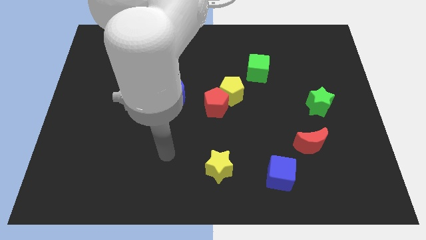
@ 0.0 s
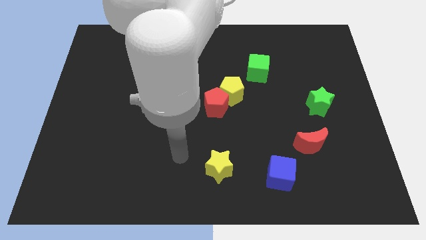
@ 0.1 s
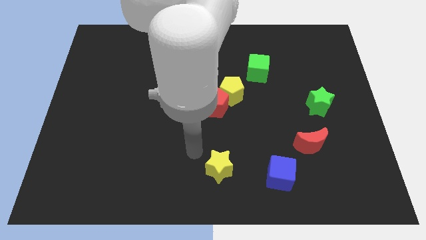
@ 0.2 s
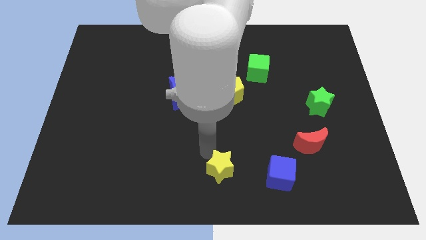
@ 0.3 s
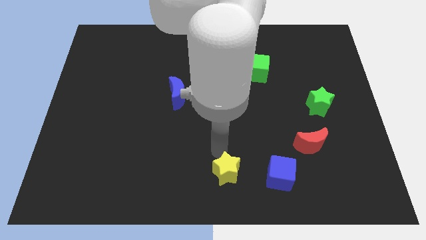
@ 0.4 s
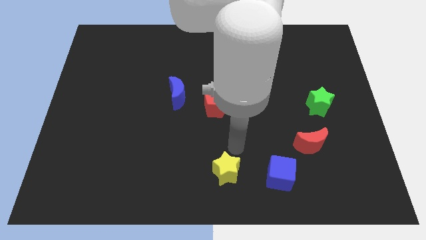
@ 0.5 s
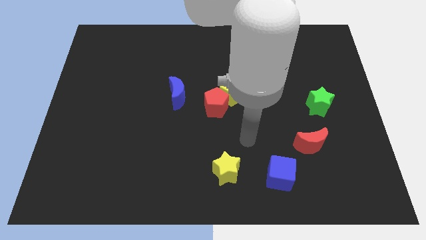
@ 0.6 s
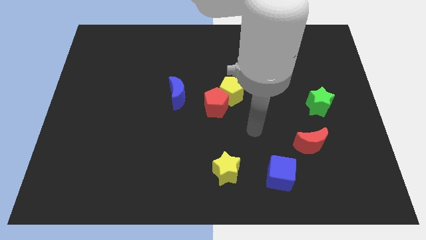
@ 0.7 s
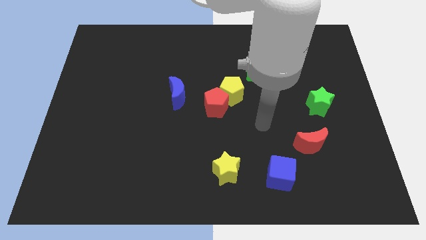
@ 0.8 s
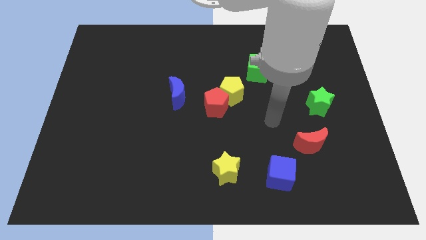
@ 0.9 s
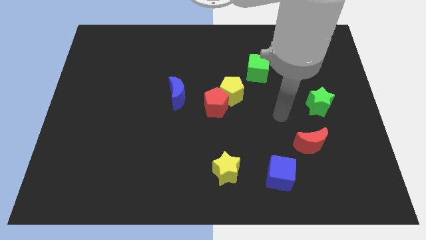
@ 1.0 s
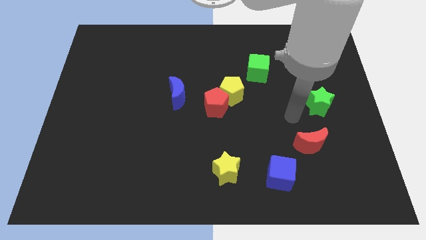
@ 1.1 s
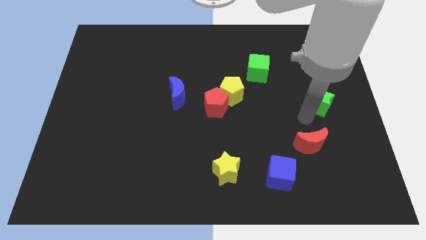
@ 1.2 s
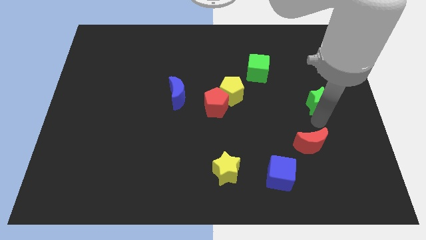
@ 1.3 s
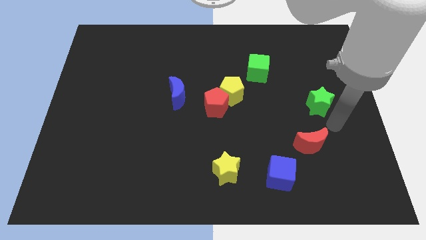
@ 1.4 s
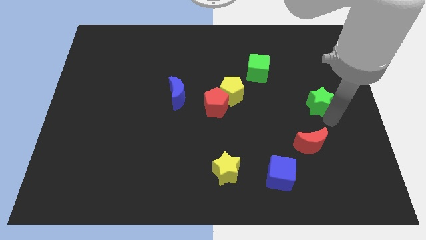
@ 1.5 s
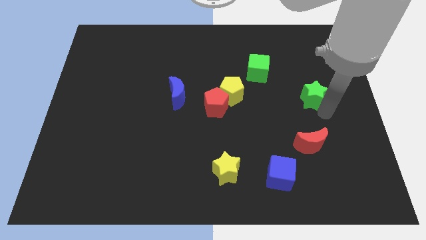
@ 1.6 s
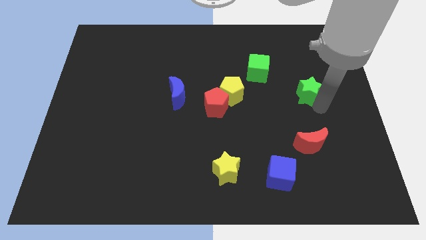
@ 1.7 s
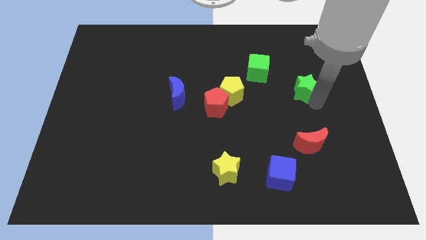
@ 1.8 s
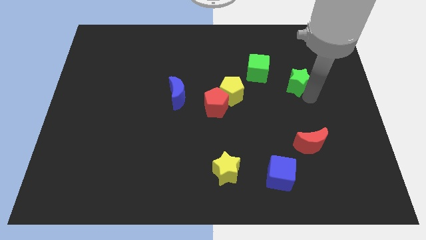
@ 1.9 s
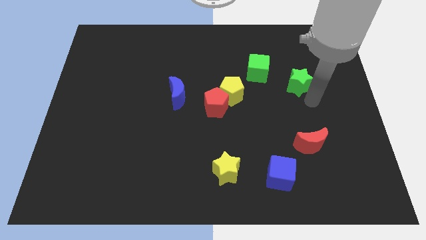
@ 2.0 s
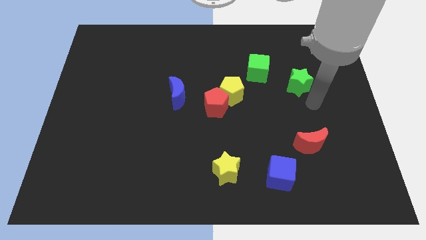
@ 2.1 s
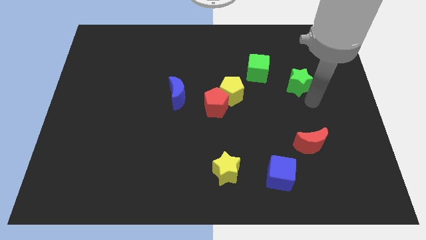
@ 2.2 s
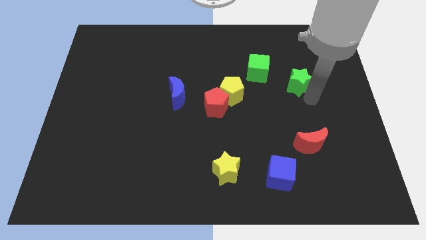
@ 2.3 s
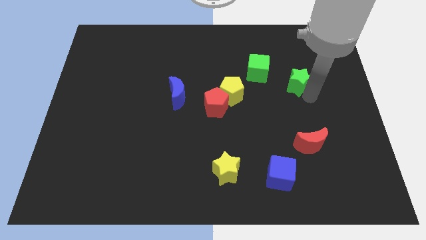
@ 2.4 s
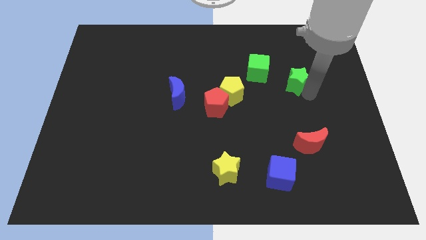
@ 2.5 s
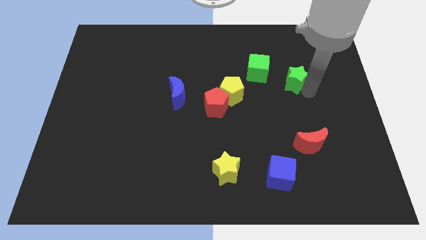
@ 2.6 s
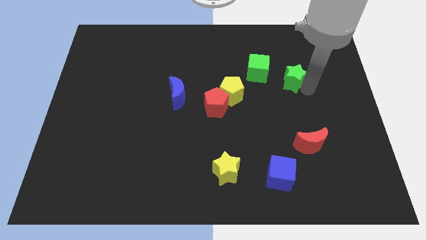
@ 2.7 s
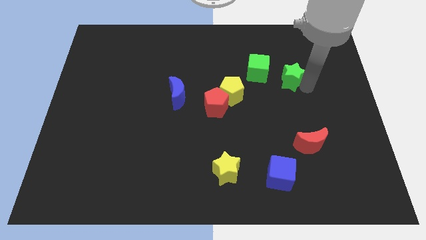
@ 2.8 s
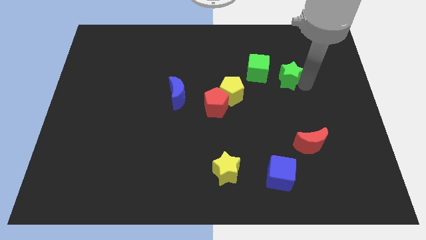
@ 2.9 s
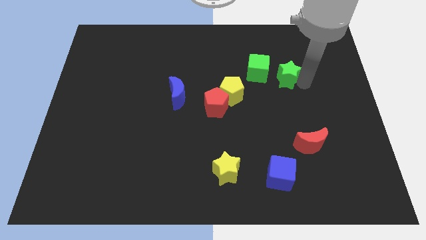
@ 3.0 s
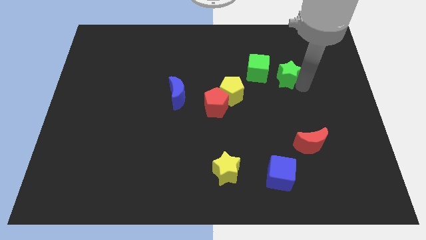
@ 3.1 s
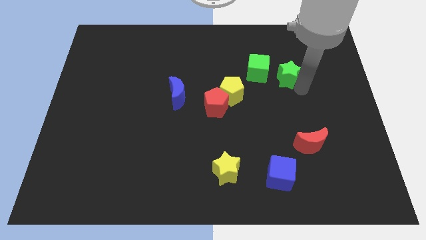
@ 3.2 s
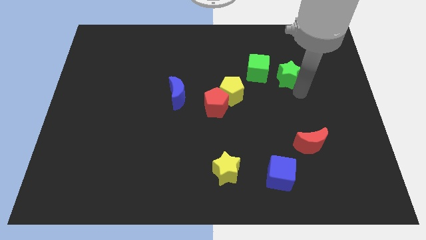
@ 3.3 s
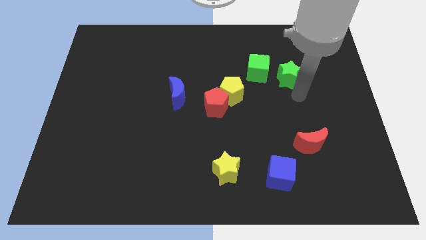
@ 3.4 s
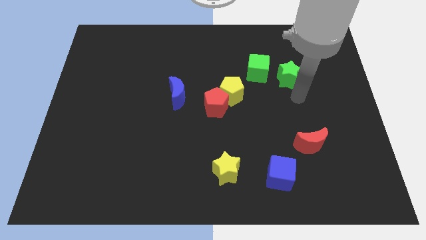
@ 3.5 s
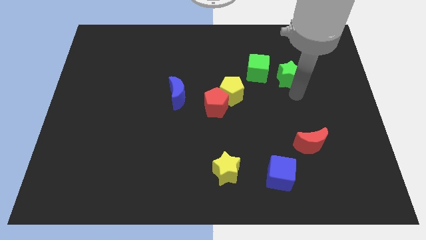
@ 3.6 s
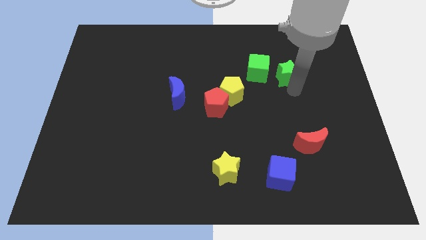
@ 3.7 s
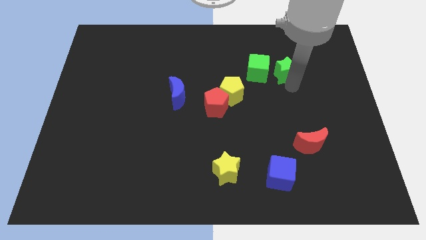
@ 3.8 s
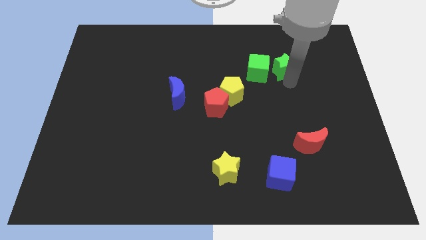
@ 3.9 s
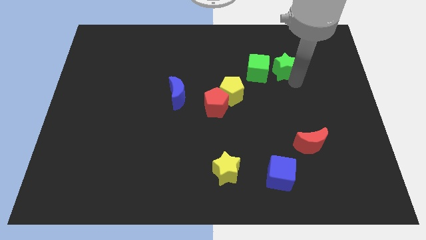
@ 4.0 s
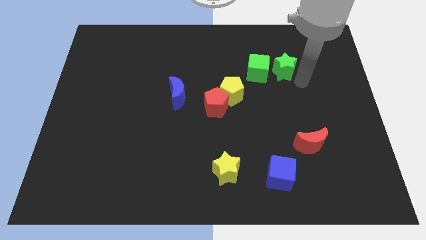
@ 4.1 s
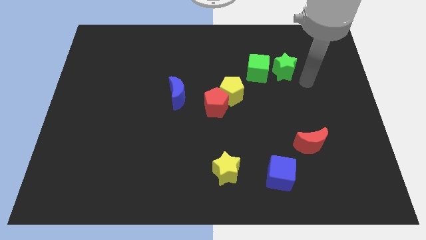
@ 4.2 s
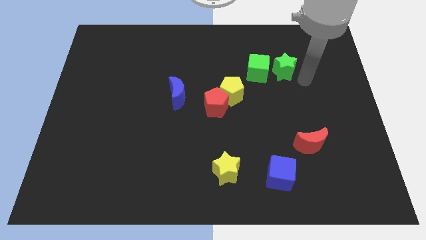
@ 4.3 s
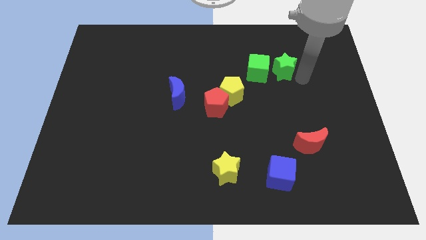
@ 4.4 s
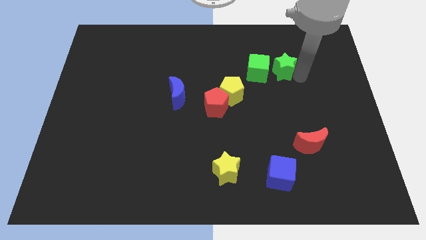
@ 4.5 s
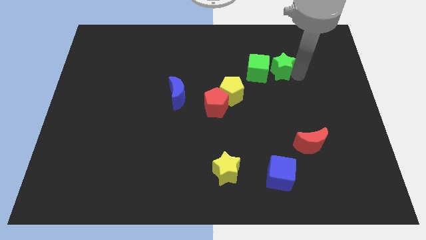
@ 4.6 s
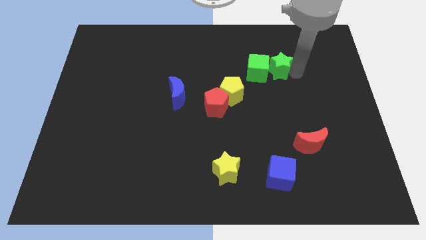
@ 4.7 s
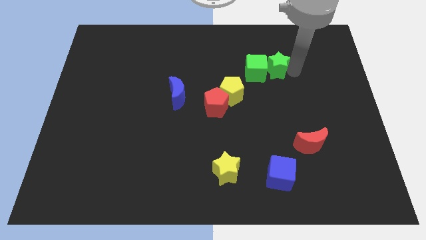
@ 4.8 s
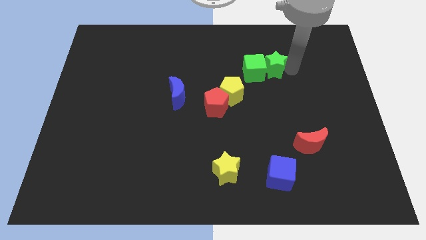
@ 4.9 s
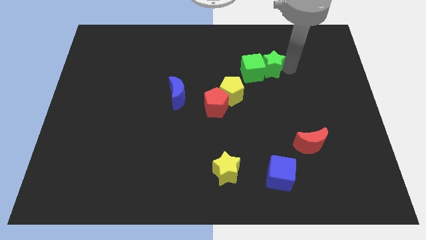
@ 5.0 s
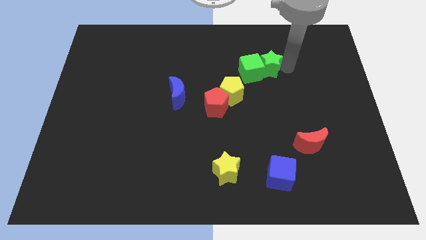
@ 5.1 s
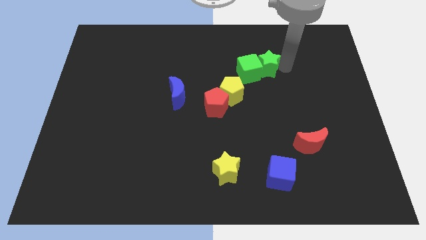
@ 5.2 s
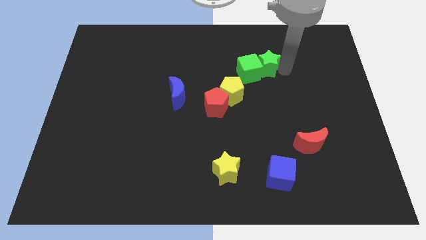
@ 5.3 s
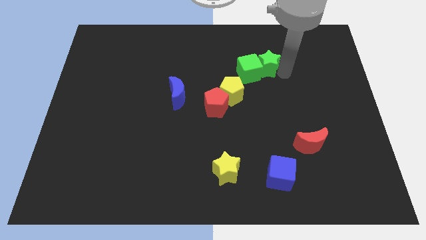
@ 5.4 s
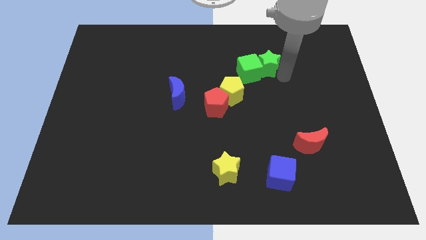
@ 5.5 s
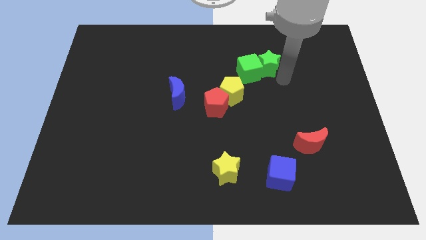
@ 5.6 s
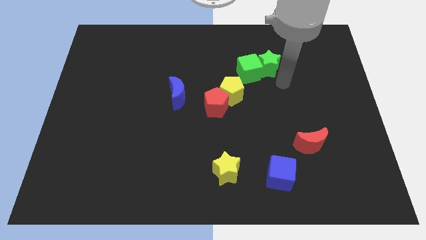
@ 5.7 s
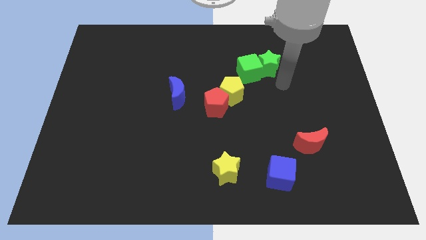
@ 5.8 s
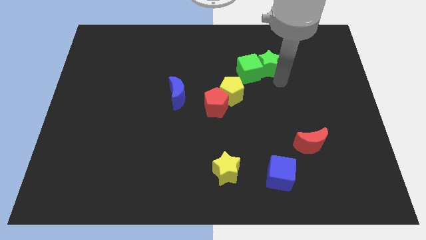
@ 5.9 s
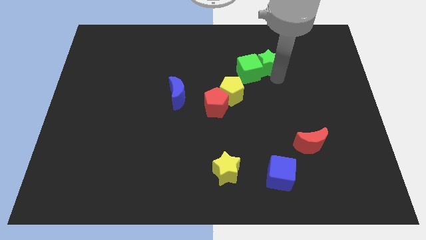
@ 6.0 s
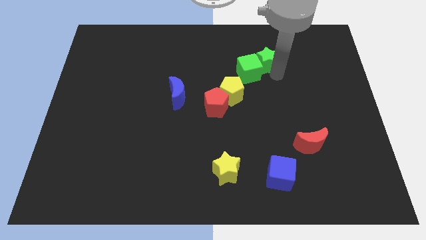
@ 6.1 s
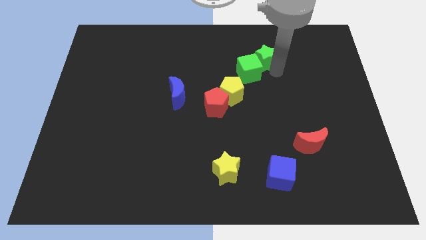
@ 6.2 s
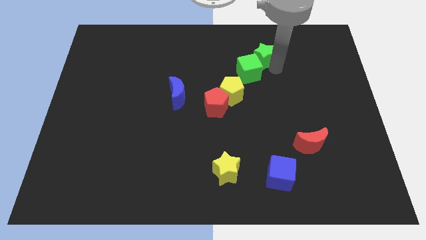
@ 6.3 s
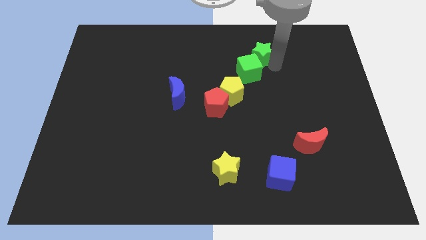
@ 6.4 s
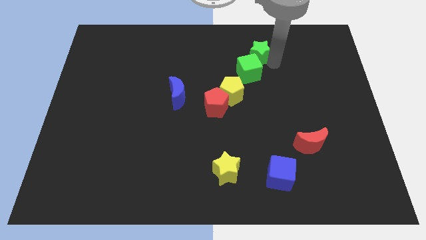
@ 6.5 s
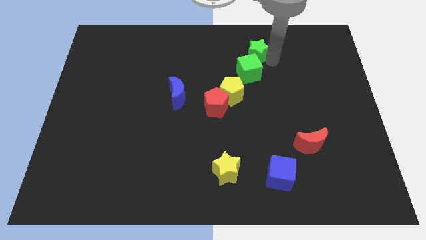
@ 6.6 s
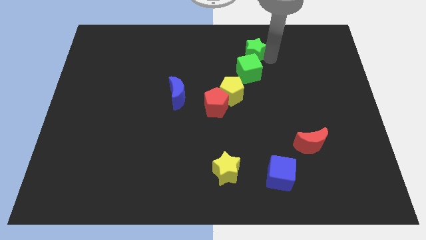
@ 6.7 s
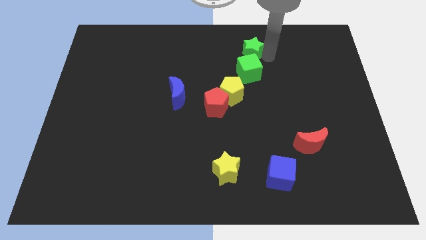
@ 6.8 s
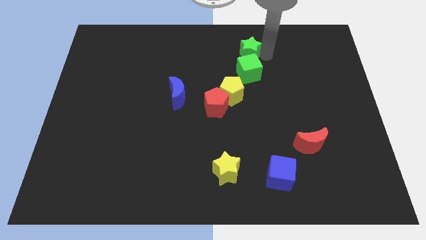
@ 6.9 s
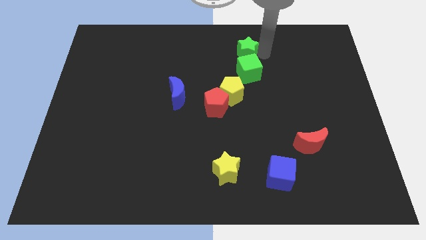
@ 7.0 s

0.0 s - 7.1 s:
put the green star to the top left side of the green cube

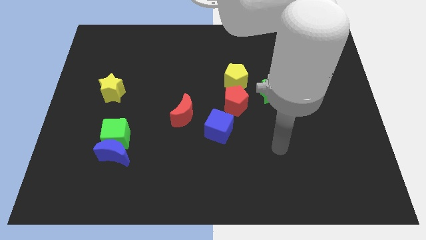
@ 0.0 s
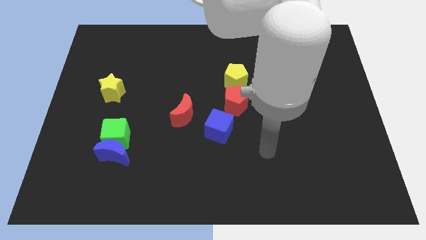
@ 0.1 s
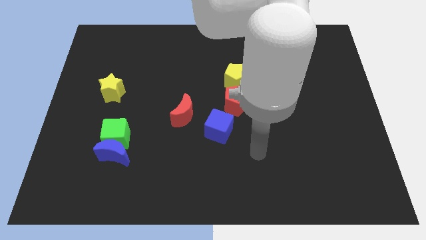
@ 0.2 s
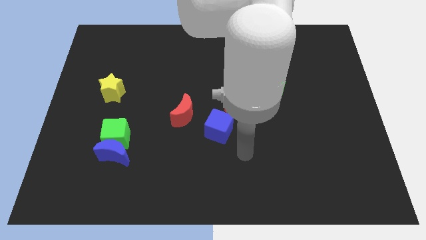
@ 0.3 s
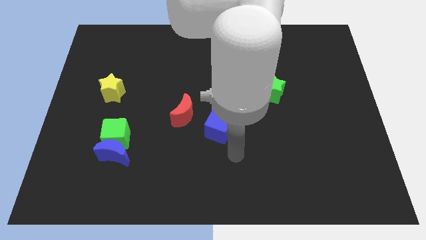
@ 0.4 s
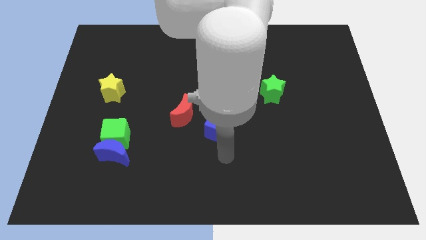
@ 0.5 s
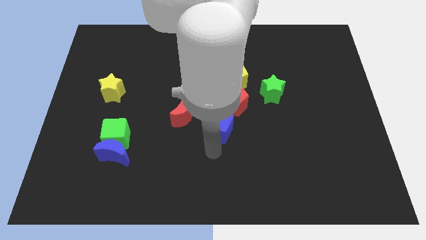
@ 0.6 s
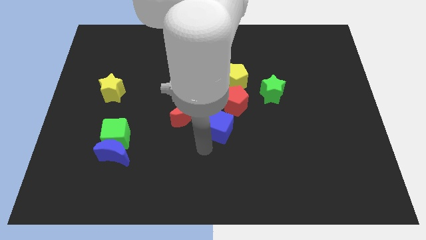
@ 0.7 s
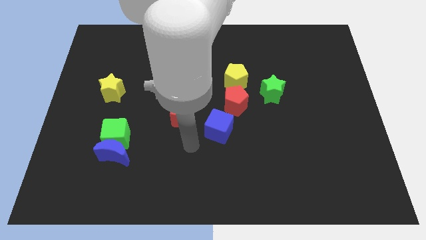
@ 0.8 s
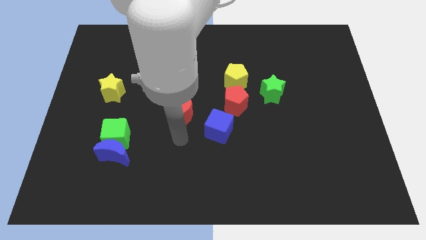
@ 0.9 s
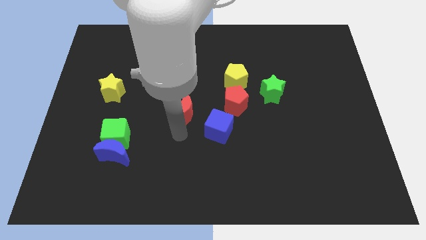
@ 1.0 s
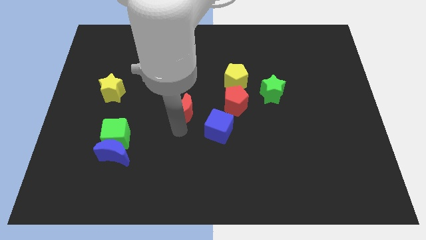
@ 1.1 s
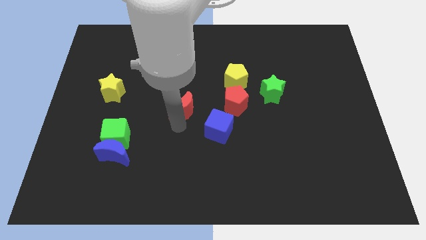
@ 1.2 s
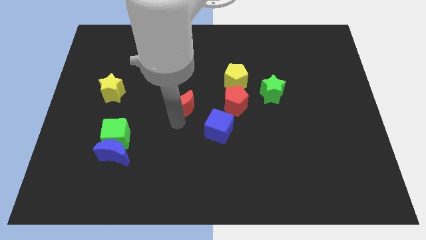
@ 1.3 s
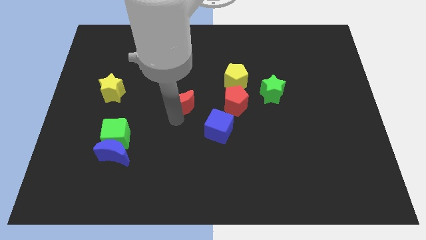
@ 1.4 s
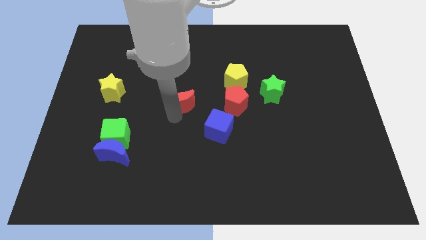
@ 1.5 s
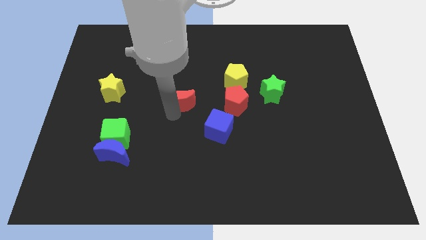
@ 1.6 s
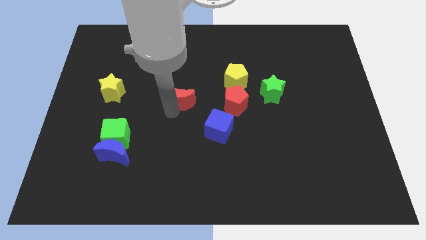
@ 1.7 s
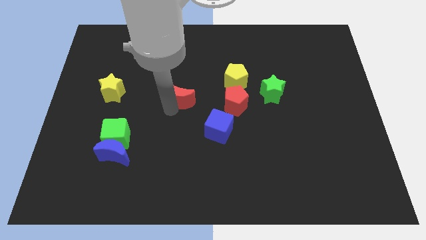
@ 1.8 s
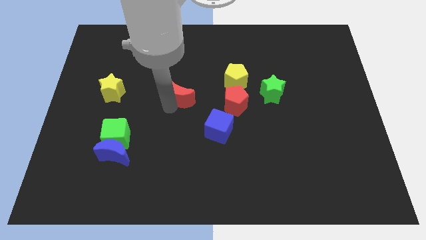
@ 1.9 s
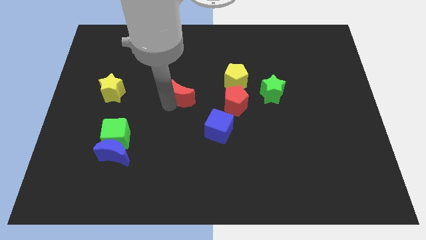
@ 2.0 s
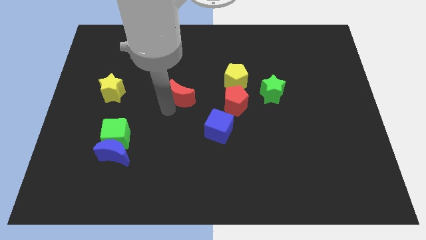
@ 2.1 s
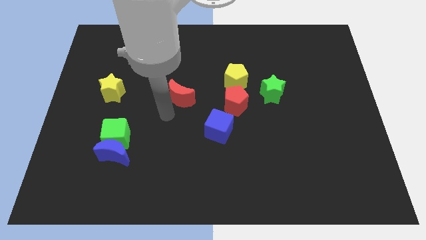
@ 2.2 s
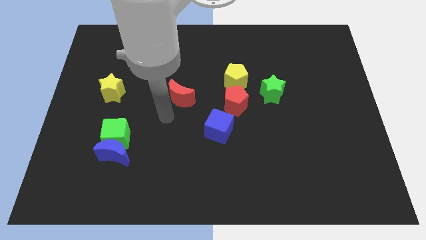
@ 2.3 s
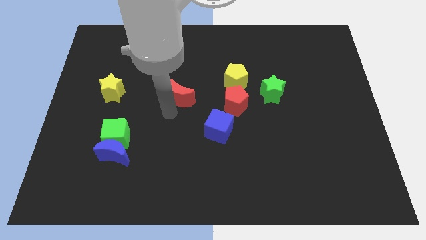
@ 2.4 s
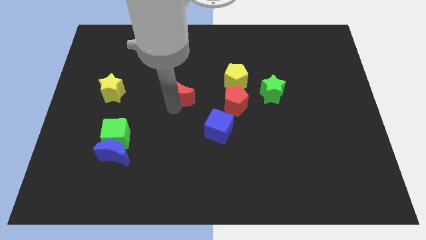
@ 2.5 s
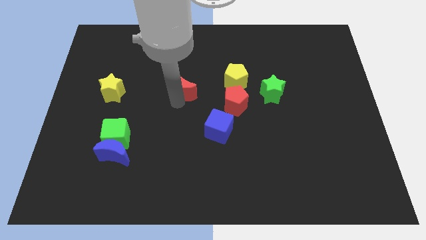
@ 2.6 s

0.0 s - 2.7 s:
slide the red moon to the left of the yellow pentagon
